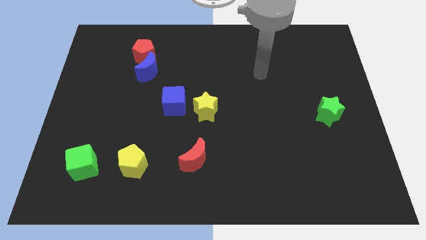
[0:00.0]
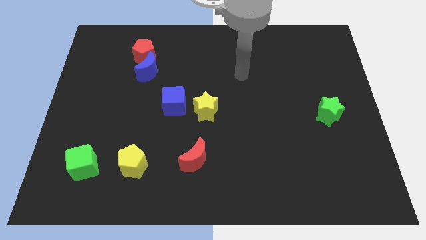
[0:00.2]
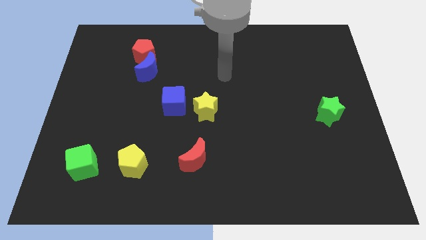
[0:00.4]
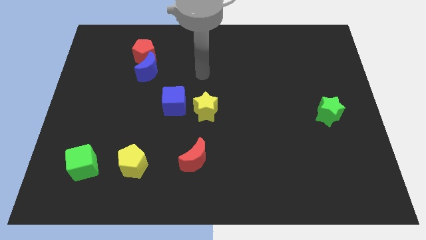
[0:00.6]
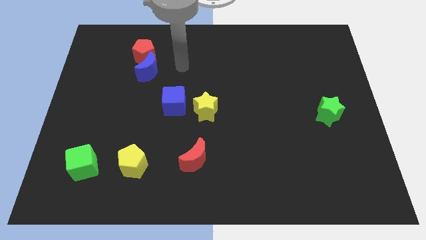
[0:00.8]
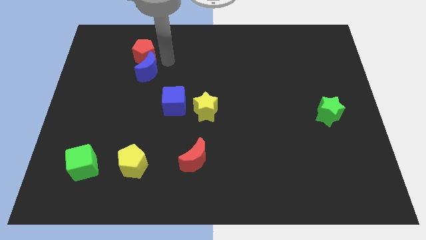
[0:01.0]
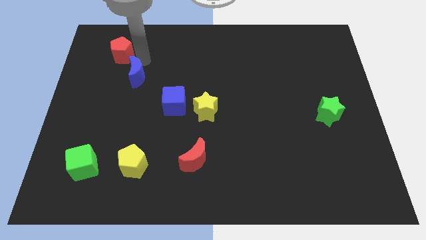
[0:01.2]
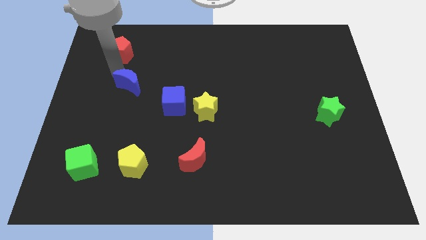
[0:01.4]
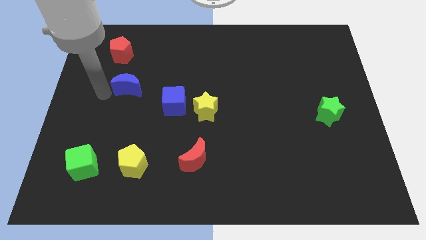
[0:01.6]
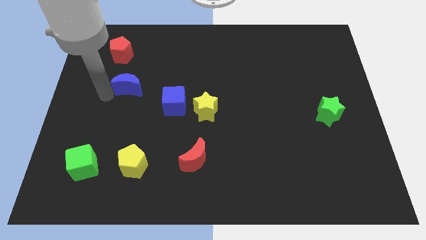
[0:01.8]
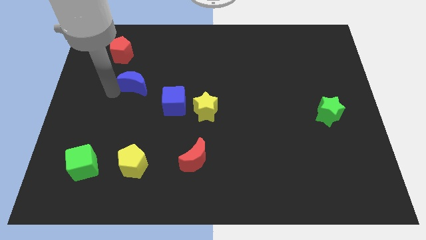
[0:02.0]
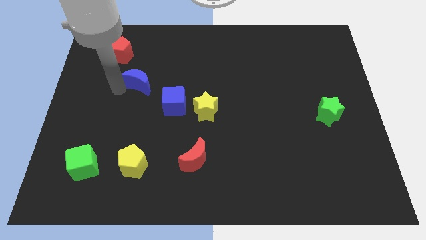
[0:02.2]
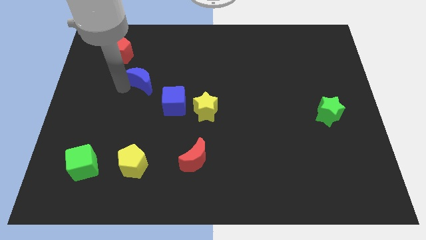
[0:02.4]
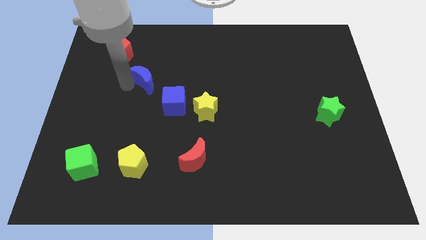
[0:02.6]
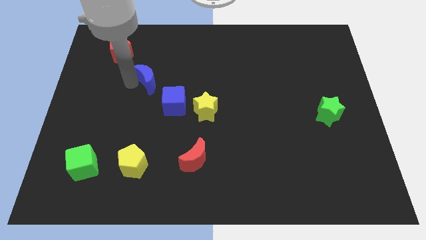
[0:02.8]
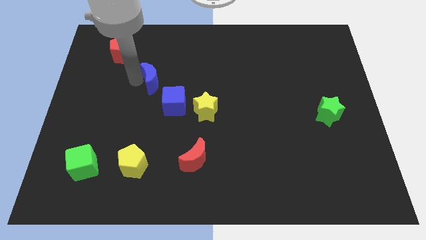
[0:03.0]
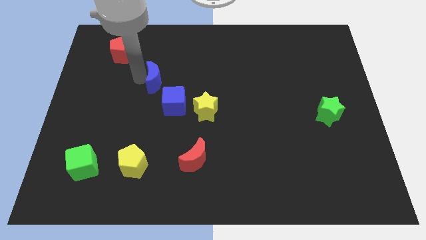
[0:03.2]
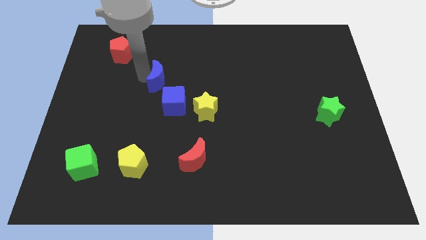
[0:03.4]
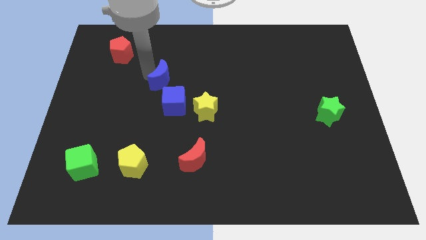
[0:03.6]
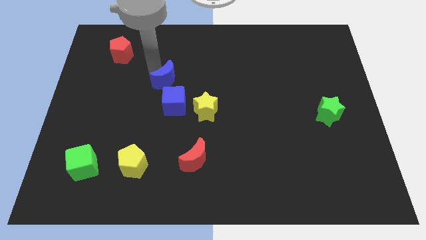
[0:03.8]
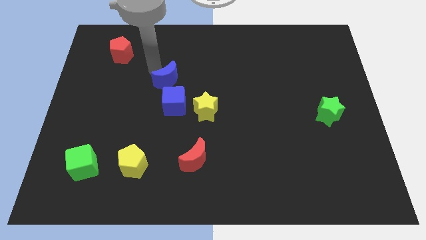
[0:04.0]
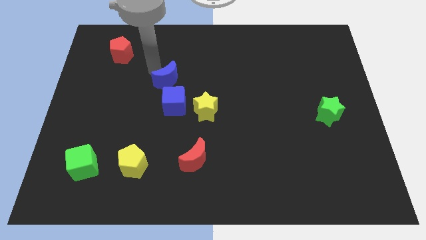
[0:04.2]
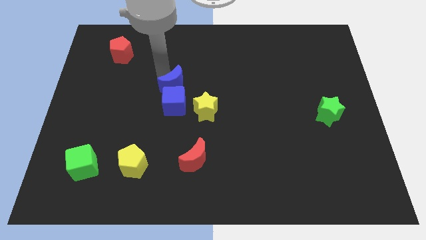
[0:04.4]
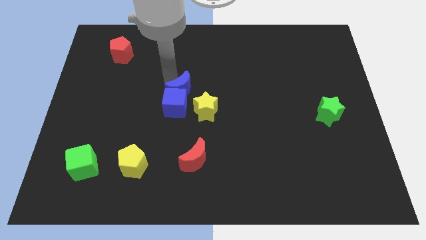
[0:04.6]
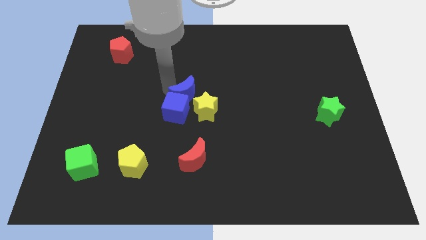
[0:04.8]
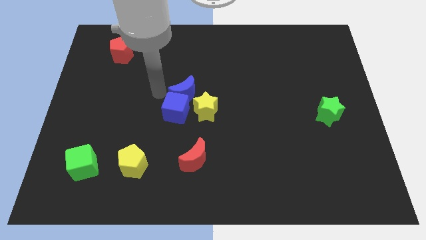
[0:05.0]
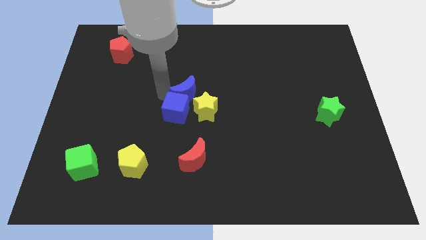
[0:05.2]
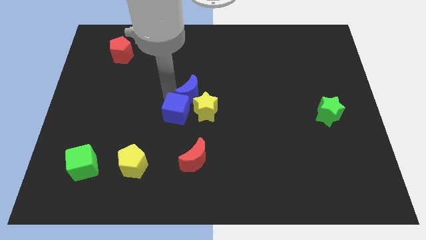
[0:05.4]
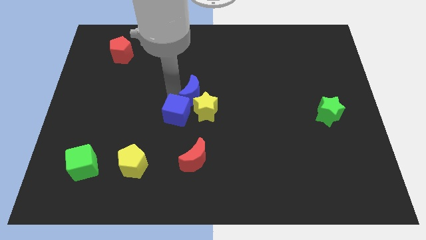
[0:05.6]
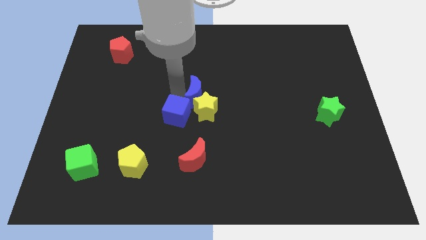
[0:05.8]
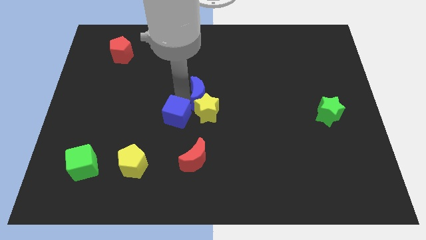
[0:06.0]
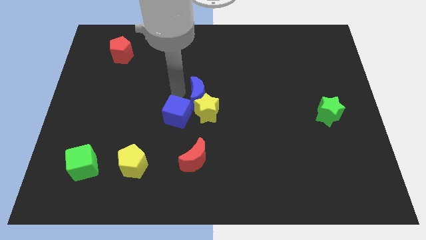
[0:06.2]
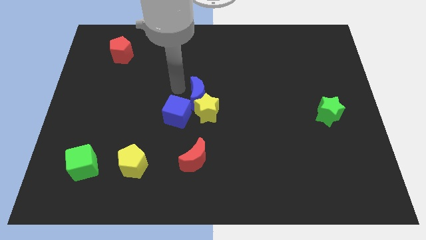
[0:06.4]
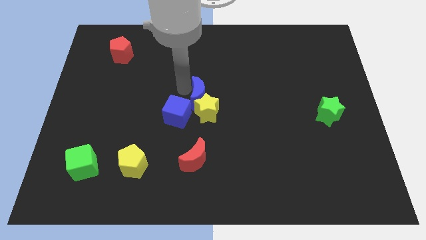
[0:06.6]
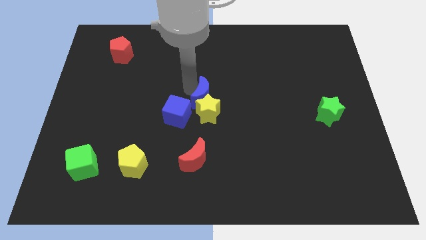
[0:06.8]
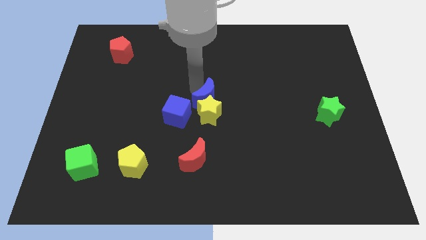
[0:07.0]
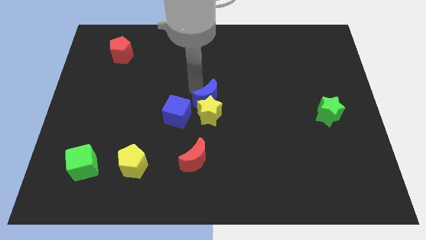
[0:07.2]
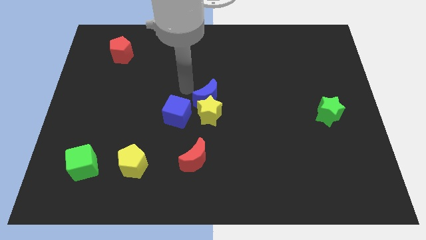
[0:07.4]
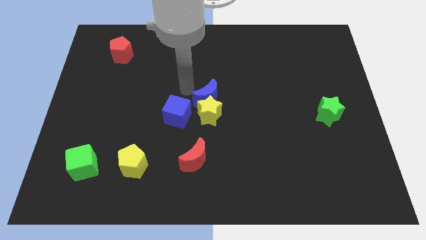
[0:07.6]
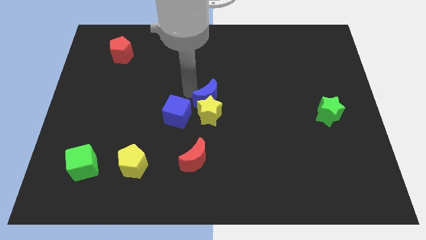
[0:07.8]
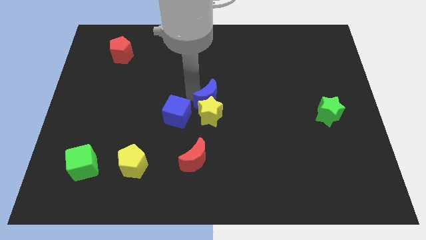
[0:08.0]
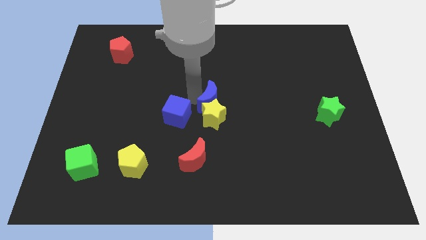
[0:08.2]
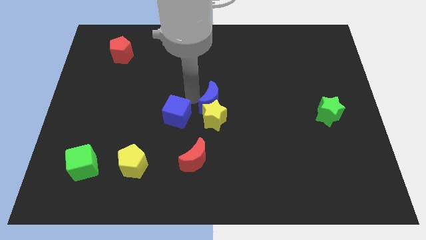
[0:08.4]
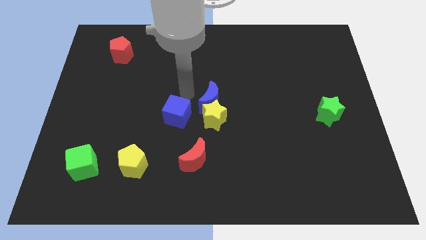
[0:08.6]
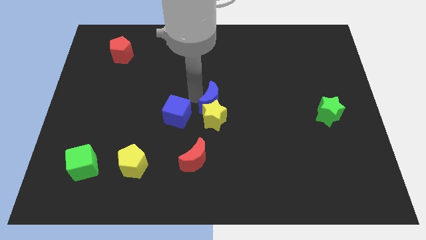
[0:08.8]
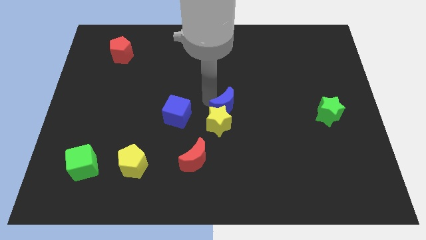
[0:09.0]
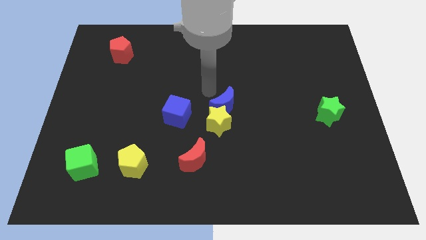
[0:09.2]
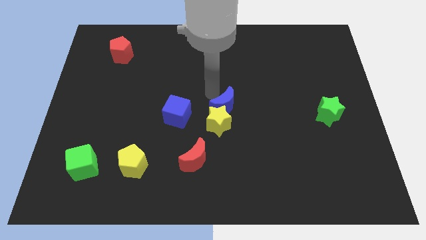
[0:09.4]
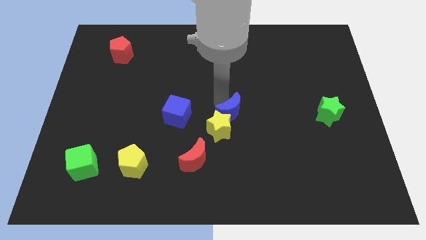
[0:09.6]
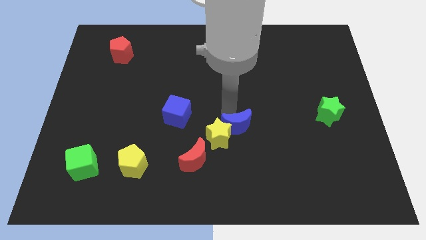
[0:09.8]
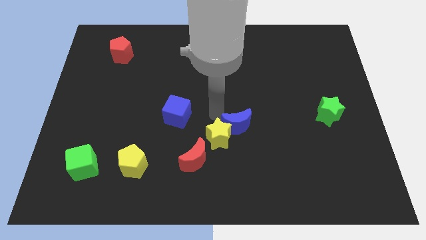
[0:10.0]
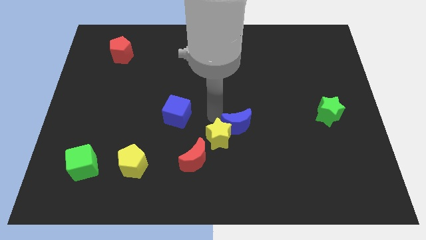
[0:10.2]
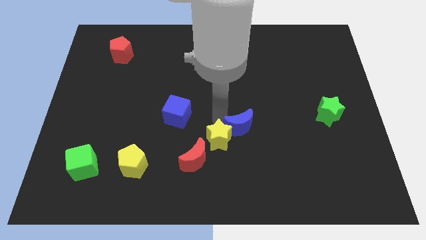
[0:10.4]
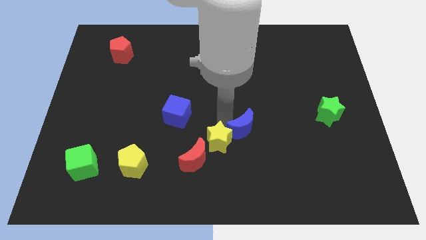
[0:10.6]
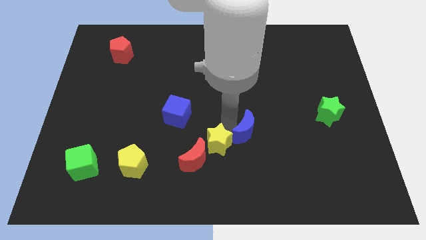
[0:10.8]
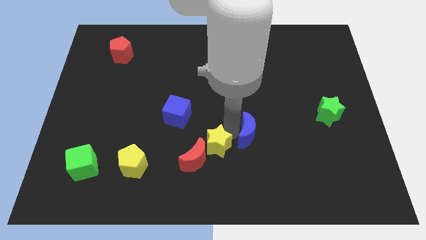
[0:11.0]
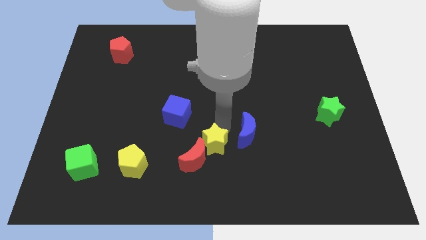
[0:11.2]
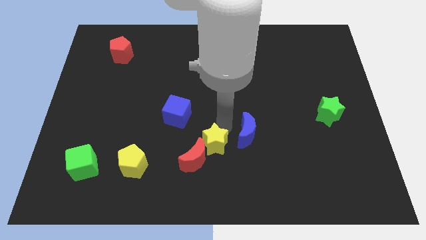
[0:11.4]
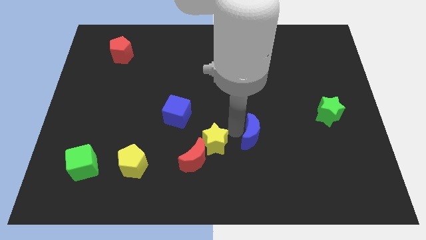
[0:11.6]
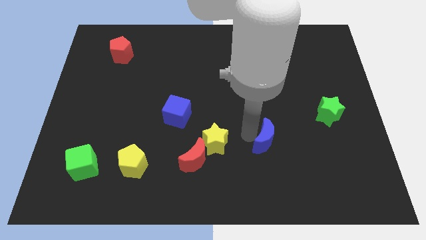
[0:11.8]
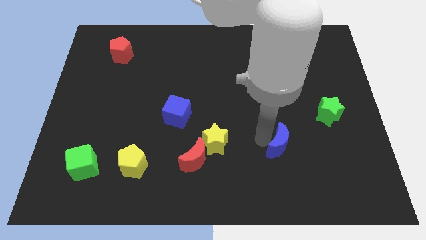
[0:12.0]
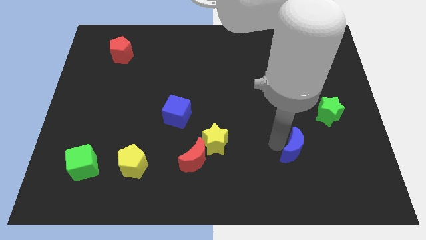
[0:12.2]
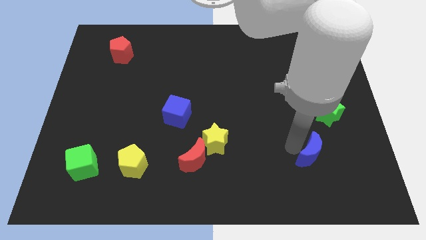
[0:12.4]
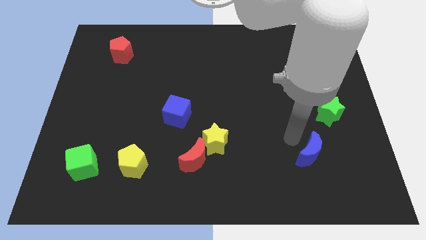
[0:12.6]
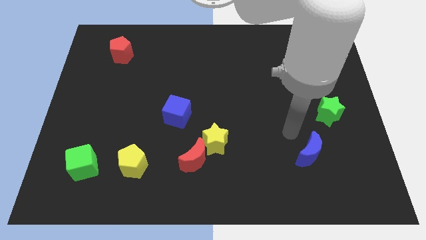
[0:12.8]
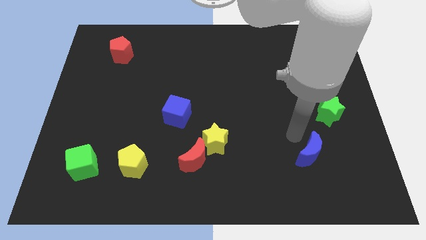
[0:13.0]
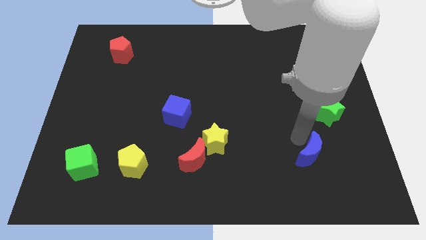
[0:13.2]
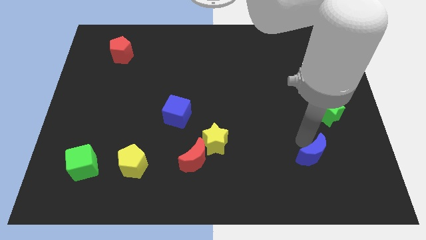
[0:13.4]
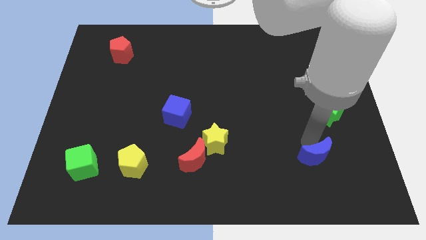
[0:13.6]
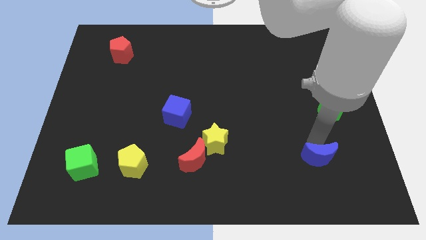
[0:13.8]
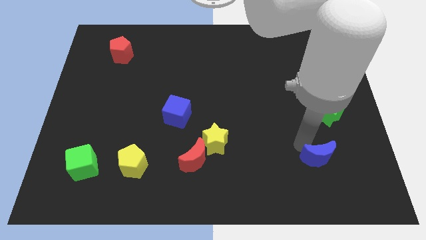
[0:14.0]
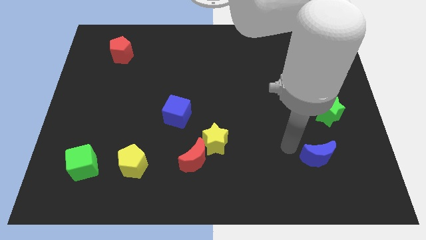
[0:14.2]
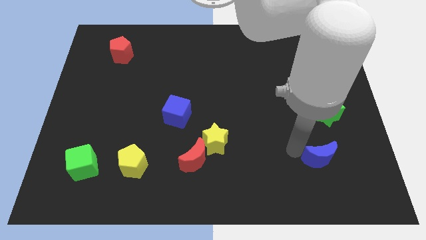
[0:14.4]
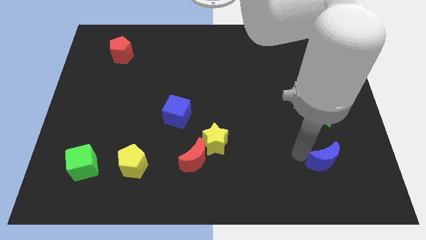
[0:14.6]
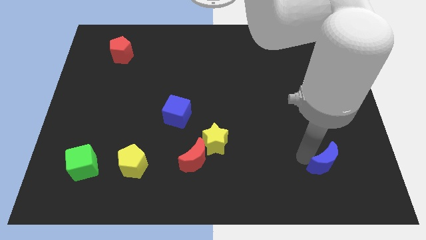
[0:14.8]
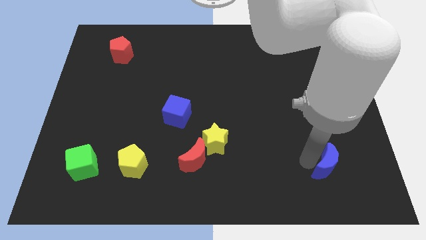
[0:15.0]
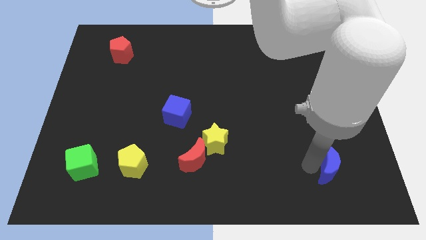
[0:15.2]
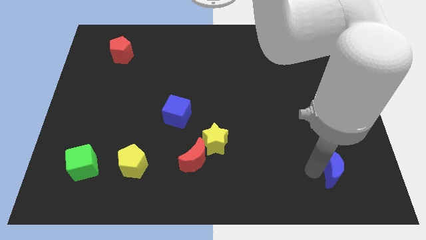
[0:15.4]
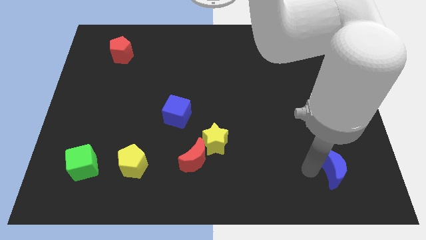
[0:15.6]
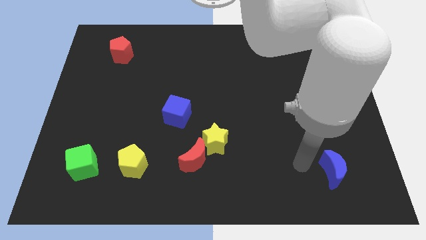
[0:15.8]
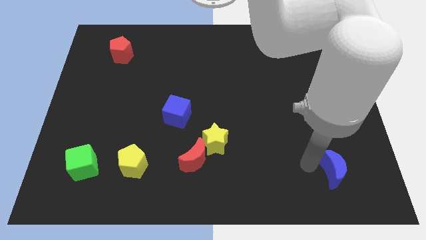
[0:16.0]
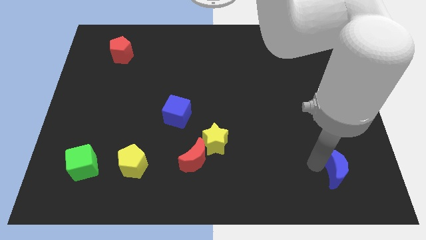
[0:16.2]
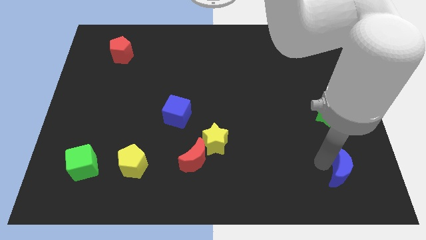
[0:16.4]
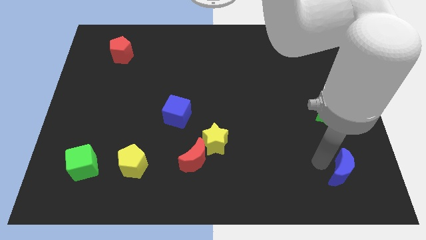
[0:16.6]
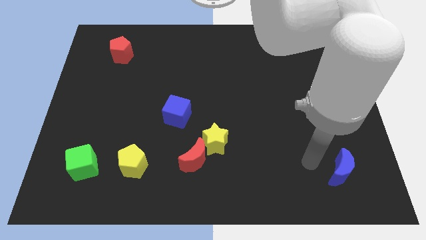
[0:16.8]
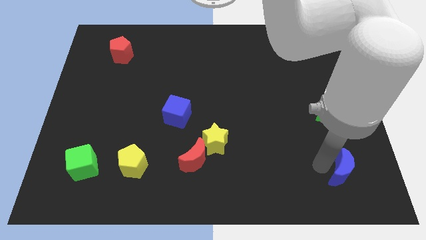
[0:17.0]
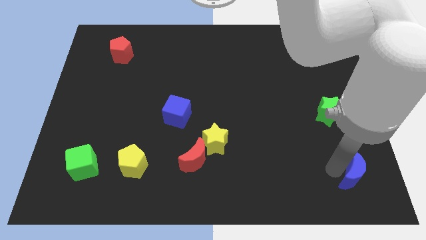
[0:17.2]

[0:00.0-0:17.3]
move the blue moon to the lower right corner
